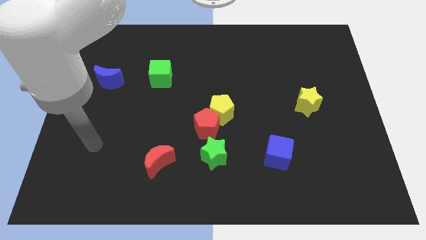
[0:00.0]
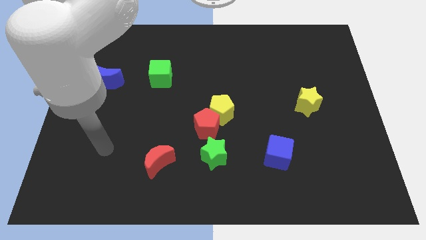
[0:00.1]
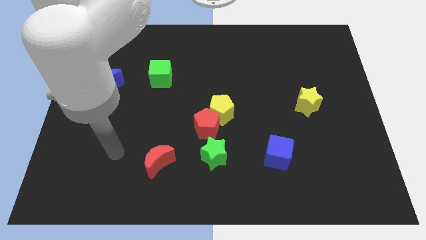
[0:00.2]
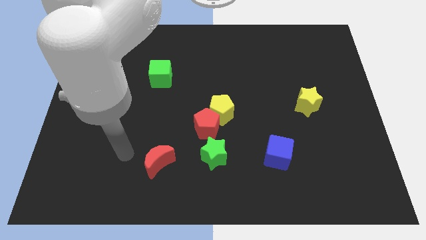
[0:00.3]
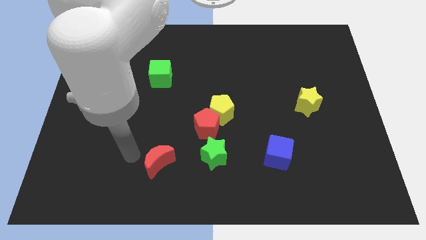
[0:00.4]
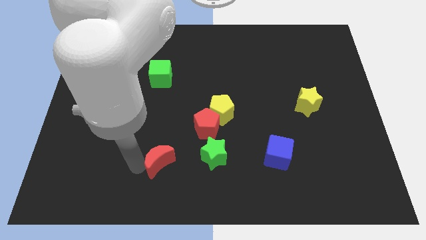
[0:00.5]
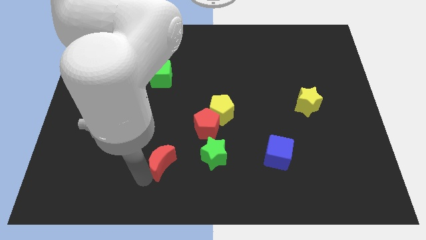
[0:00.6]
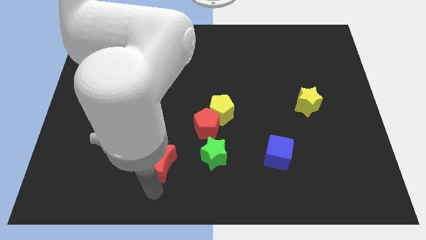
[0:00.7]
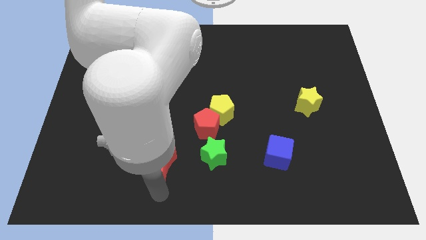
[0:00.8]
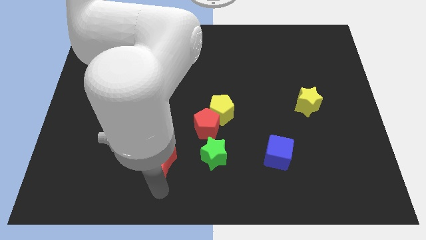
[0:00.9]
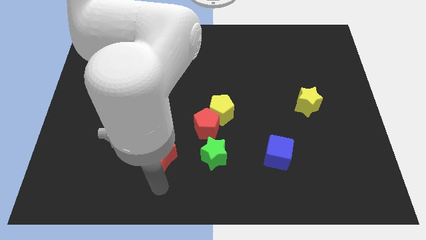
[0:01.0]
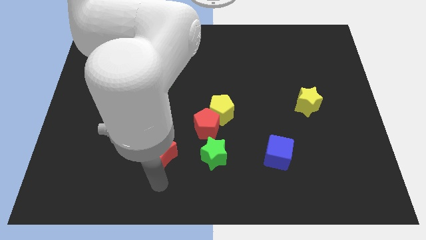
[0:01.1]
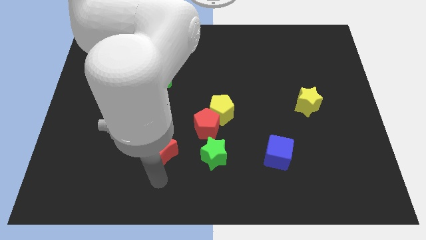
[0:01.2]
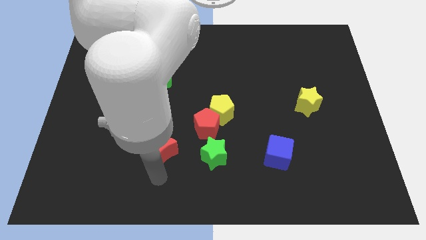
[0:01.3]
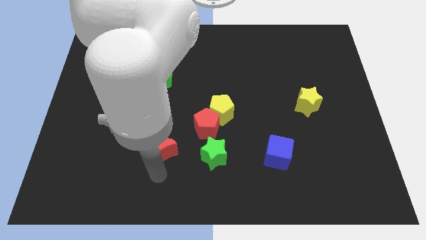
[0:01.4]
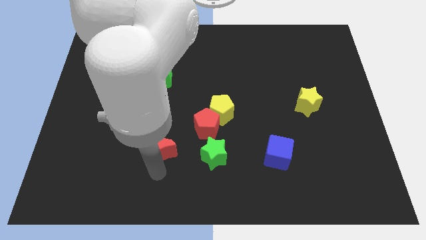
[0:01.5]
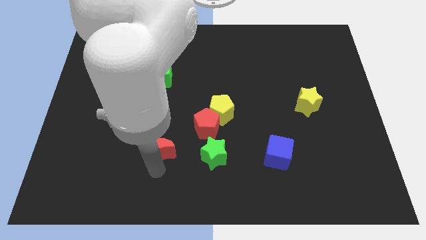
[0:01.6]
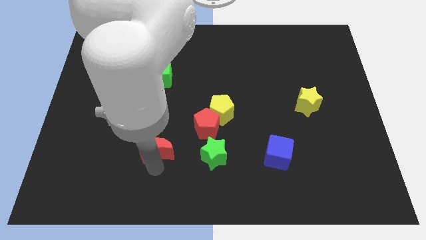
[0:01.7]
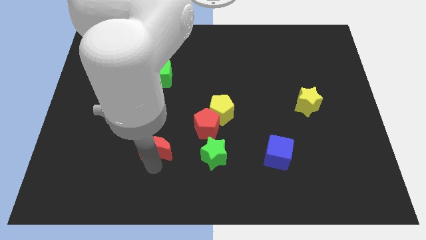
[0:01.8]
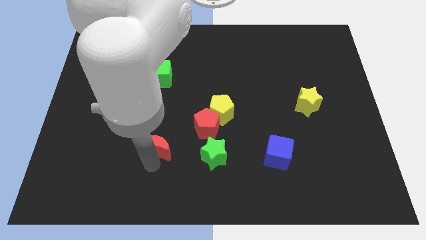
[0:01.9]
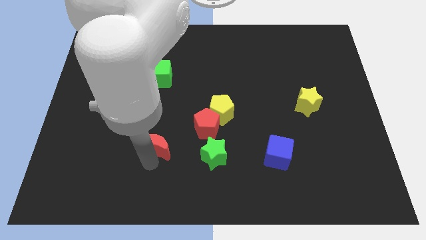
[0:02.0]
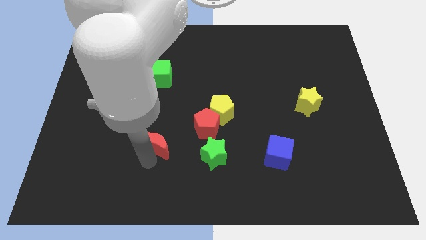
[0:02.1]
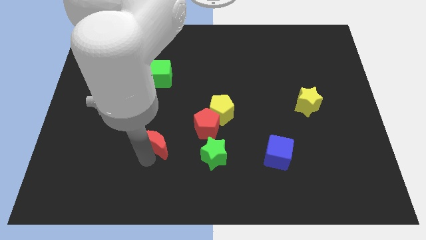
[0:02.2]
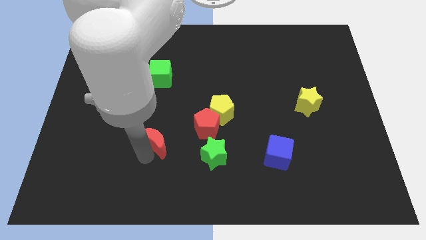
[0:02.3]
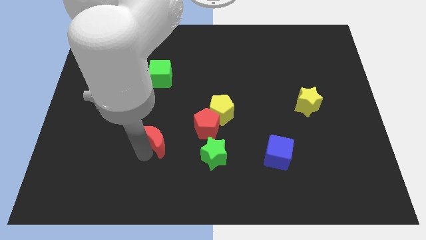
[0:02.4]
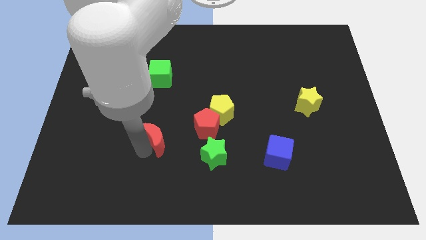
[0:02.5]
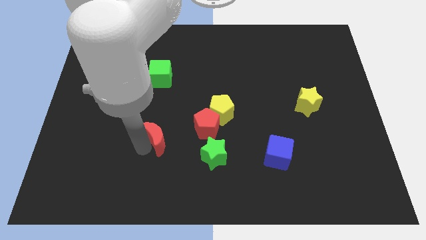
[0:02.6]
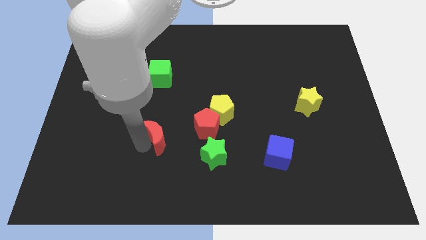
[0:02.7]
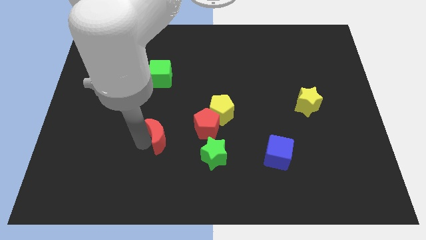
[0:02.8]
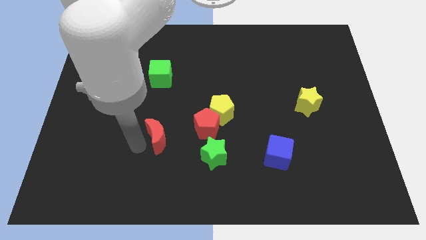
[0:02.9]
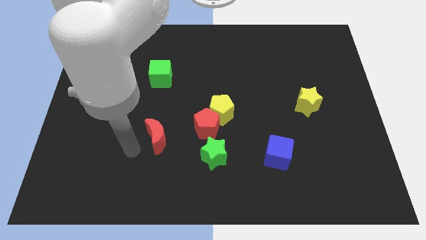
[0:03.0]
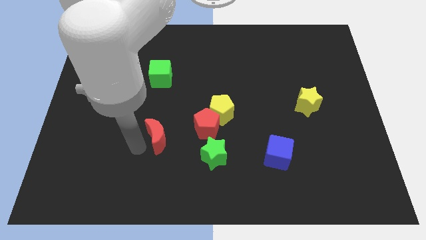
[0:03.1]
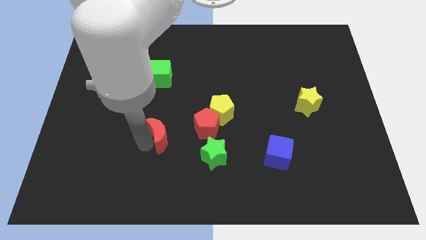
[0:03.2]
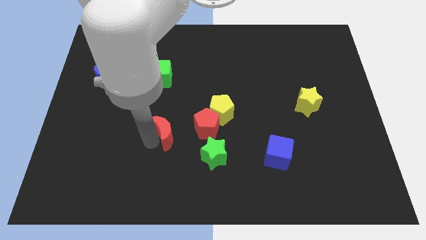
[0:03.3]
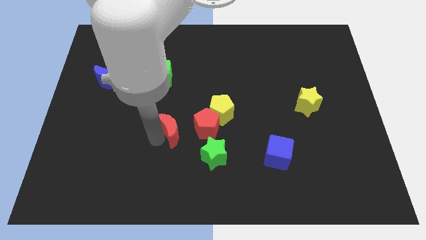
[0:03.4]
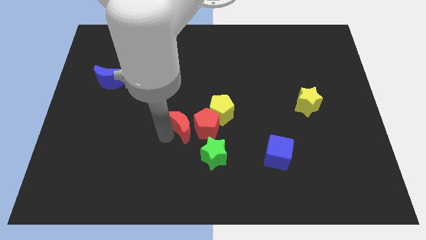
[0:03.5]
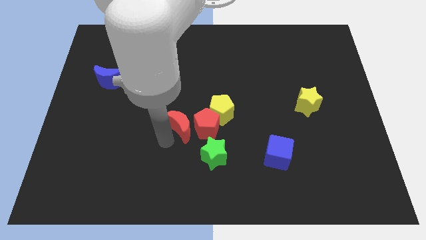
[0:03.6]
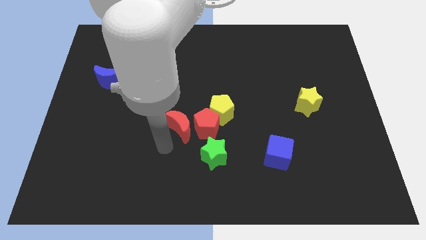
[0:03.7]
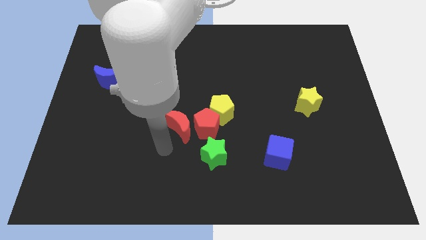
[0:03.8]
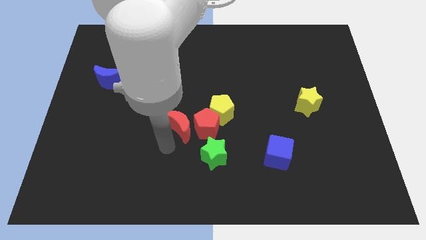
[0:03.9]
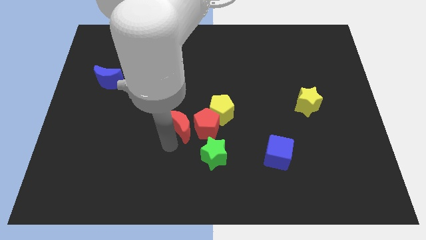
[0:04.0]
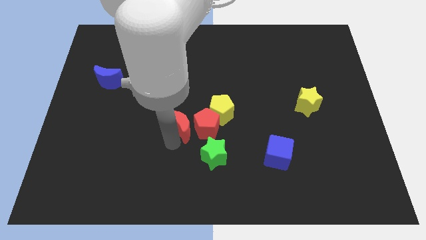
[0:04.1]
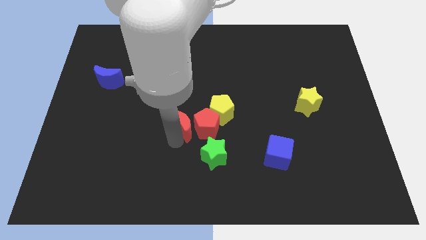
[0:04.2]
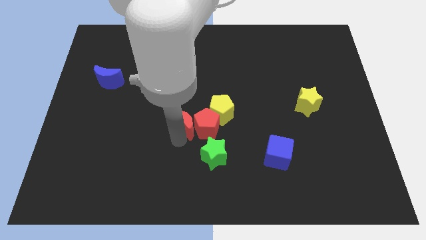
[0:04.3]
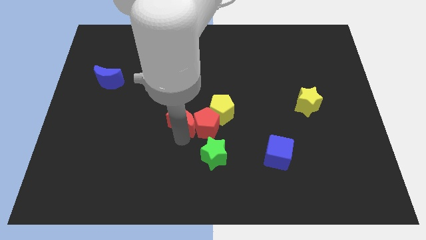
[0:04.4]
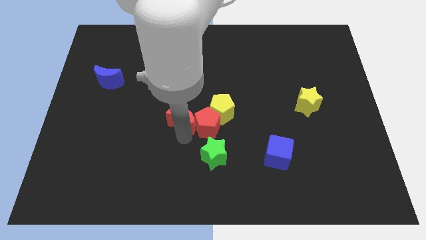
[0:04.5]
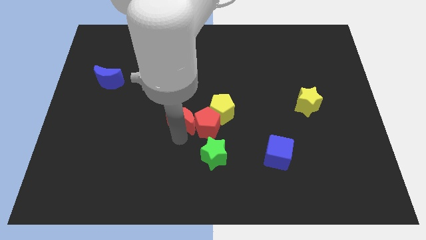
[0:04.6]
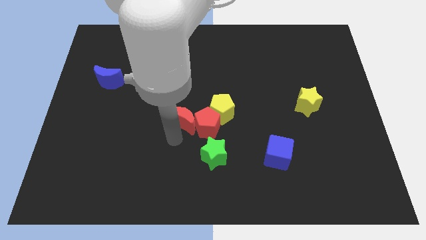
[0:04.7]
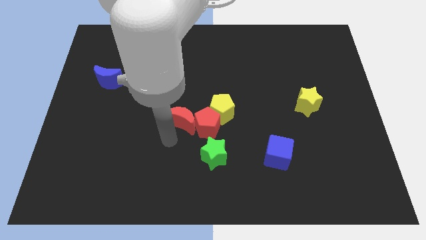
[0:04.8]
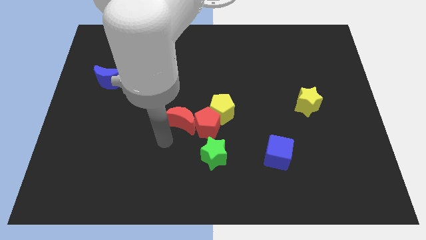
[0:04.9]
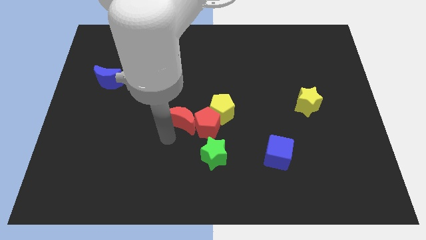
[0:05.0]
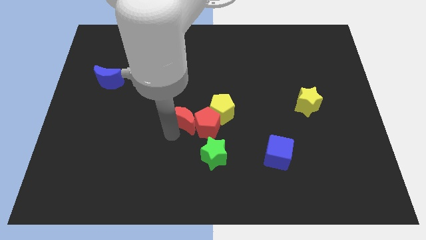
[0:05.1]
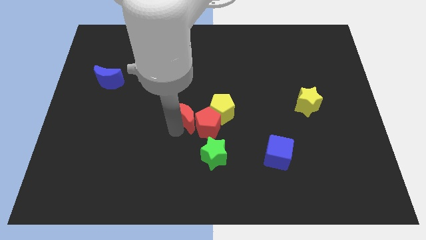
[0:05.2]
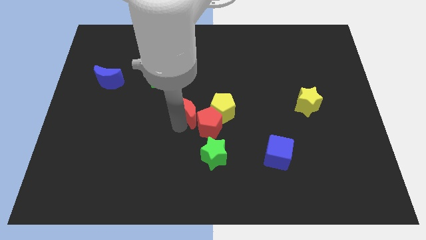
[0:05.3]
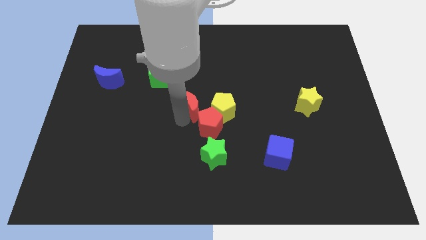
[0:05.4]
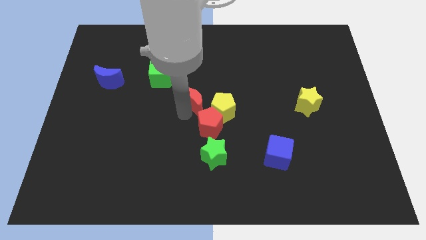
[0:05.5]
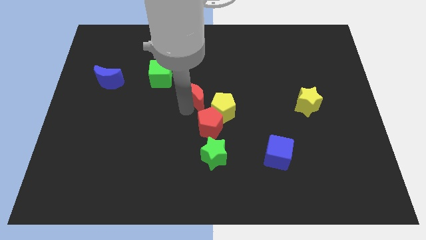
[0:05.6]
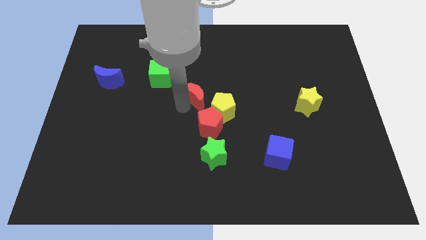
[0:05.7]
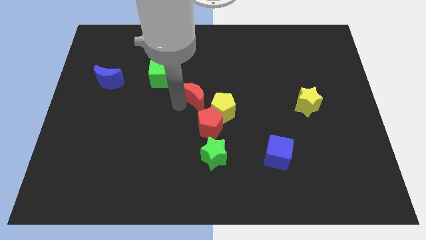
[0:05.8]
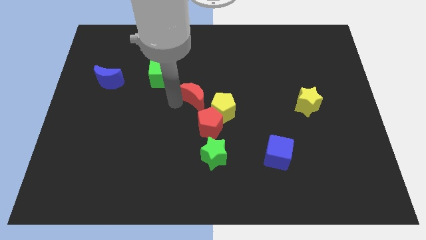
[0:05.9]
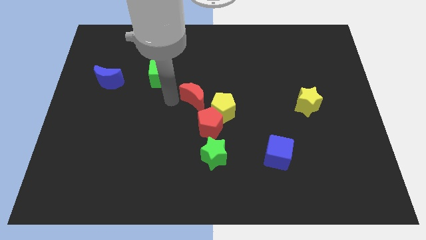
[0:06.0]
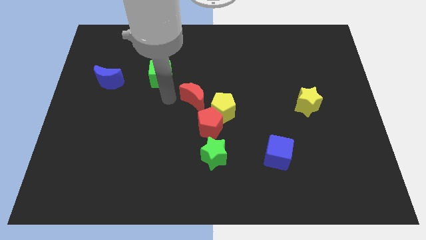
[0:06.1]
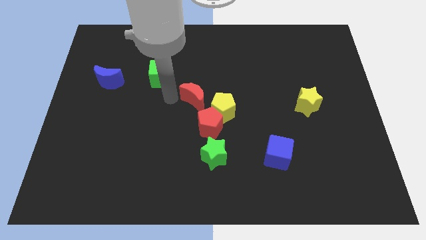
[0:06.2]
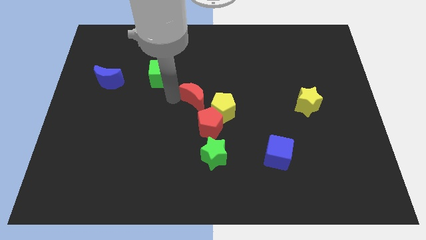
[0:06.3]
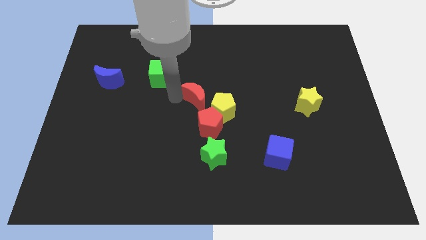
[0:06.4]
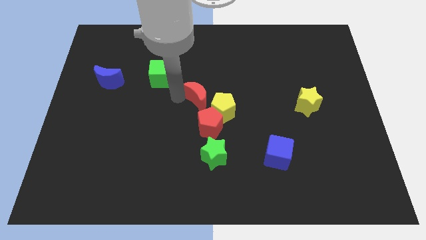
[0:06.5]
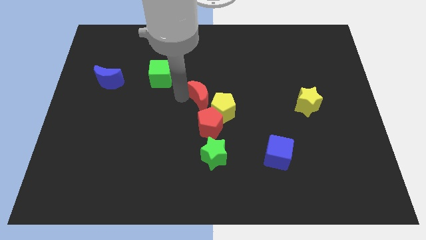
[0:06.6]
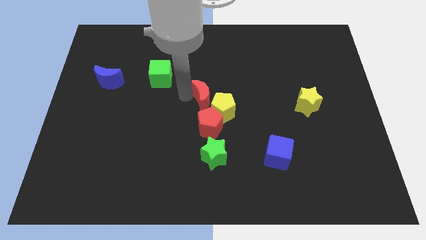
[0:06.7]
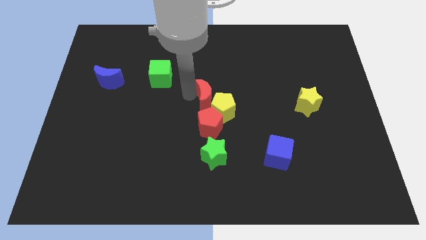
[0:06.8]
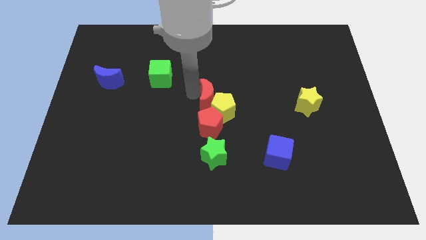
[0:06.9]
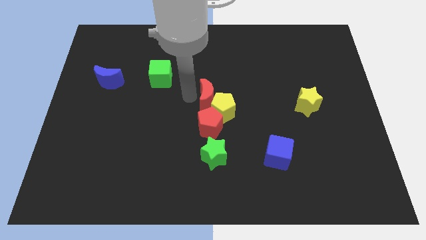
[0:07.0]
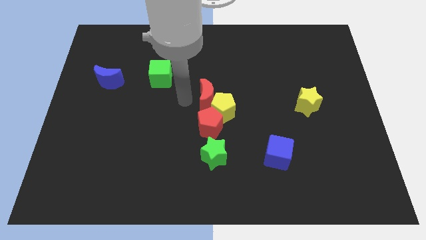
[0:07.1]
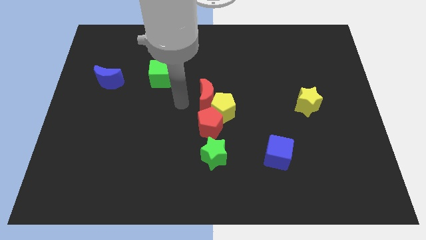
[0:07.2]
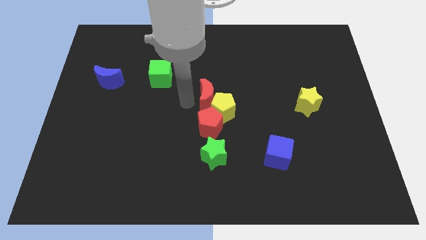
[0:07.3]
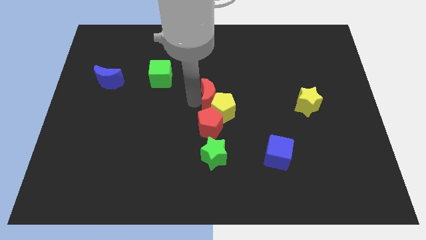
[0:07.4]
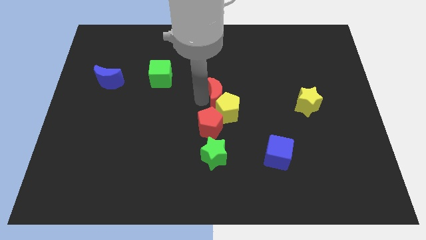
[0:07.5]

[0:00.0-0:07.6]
push the red moon upwards and right

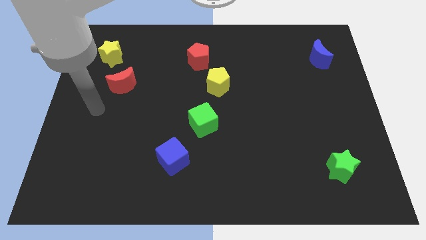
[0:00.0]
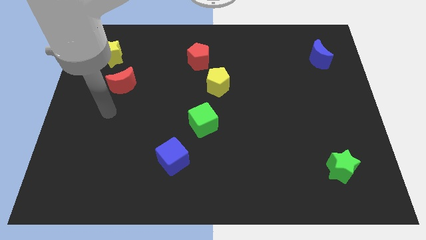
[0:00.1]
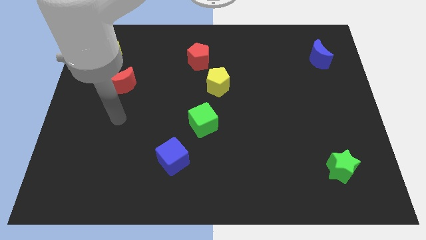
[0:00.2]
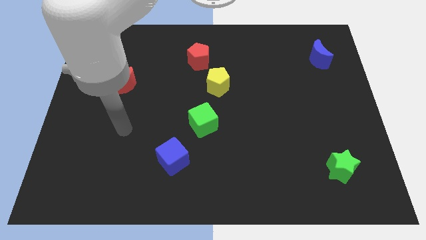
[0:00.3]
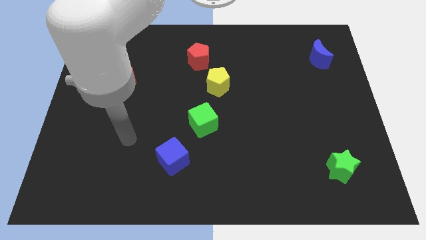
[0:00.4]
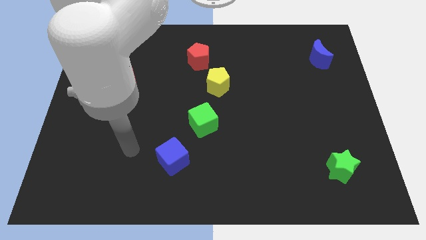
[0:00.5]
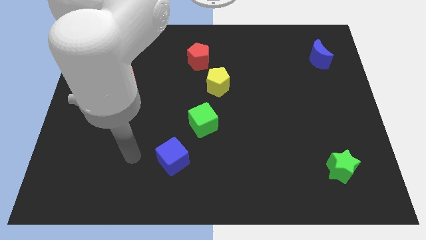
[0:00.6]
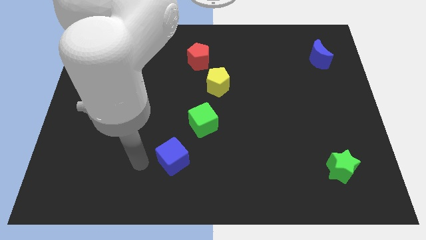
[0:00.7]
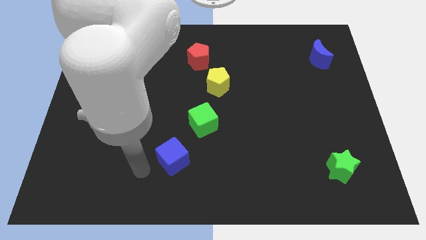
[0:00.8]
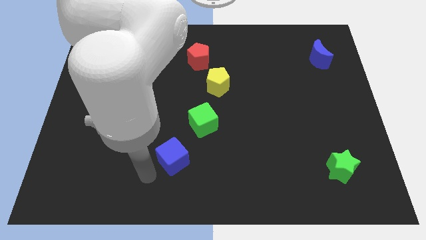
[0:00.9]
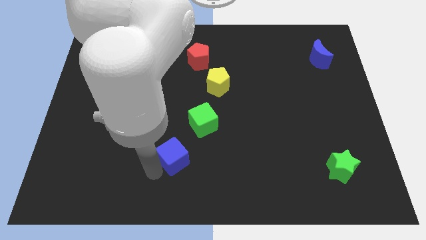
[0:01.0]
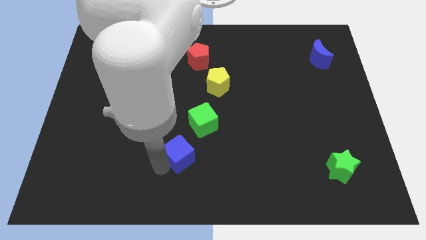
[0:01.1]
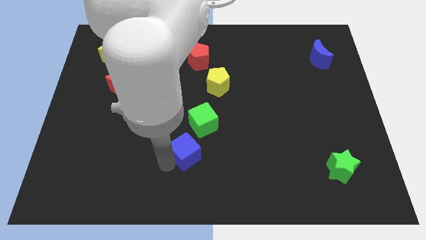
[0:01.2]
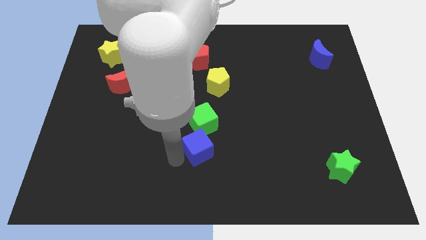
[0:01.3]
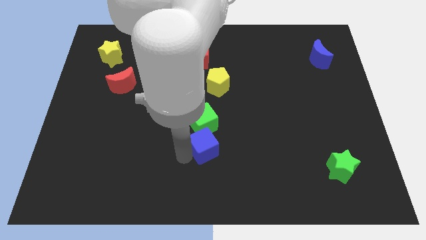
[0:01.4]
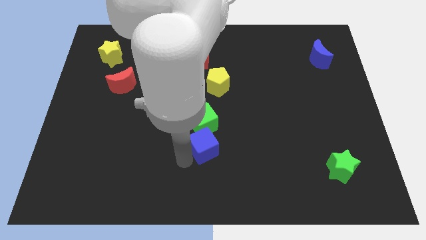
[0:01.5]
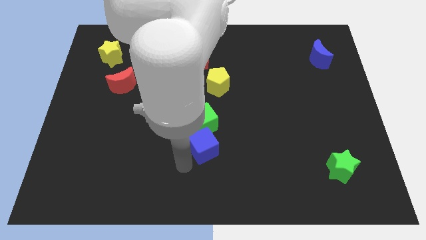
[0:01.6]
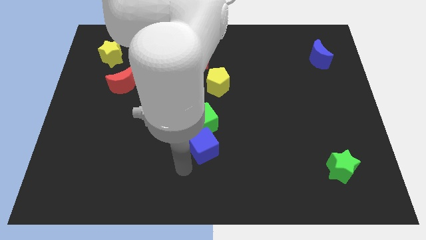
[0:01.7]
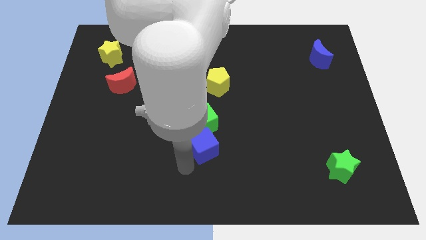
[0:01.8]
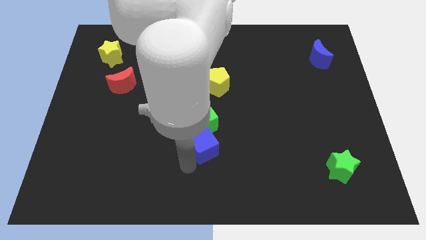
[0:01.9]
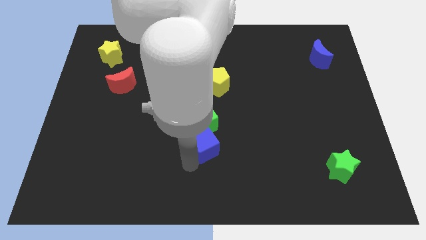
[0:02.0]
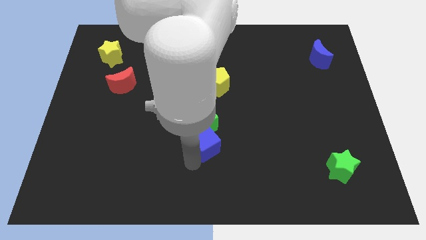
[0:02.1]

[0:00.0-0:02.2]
move the blue cube upwards and then right a bit
